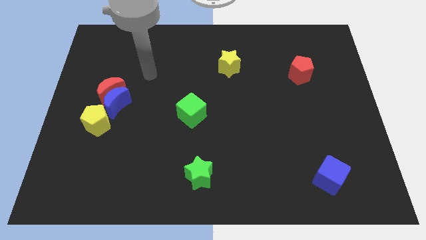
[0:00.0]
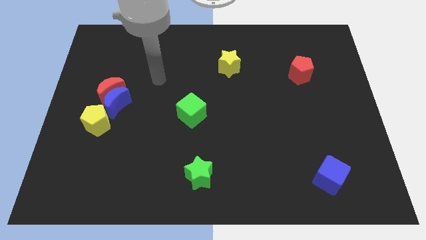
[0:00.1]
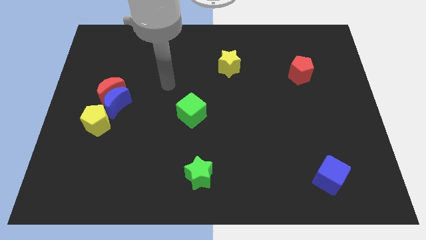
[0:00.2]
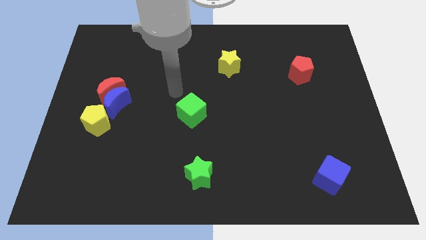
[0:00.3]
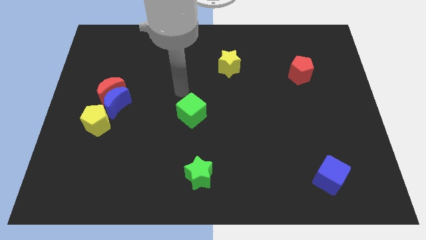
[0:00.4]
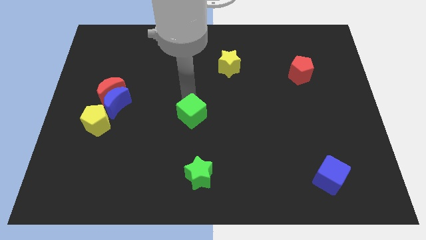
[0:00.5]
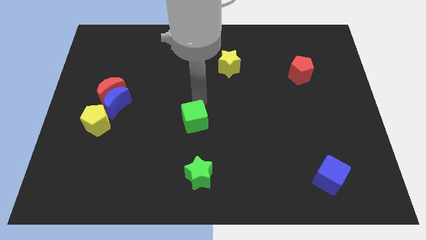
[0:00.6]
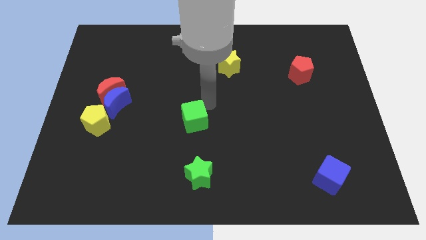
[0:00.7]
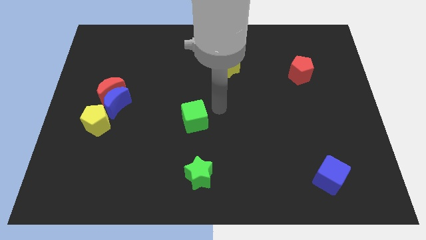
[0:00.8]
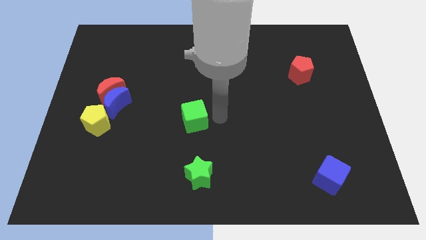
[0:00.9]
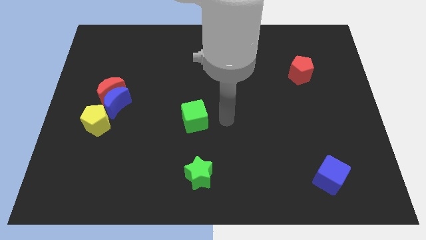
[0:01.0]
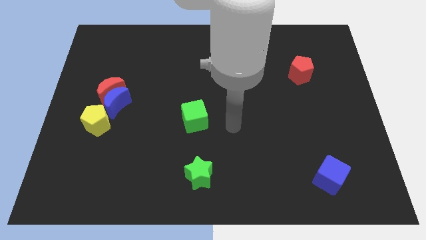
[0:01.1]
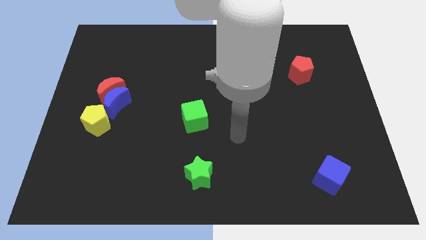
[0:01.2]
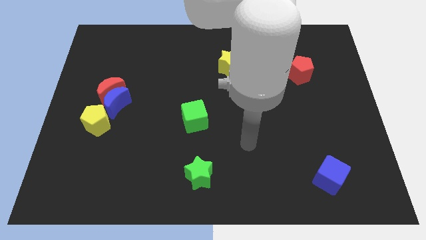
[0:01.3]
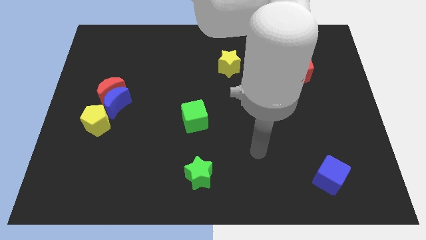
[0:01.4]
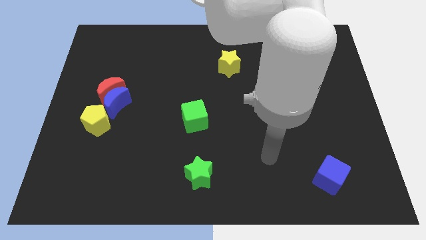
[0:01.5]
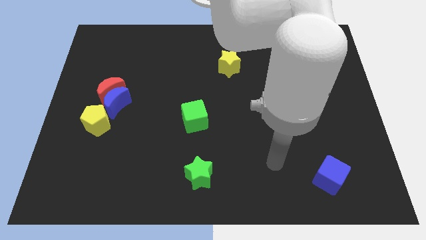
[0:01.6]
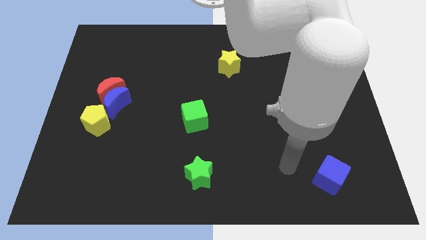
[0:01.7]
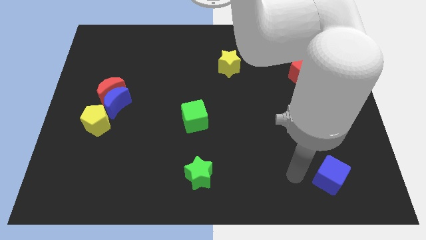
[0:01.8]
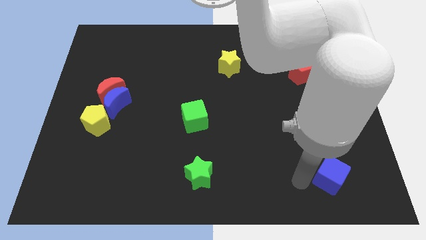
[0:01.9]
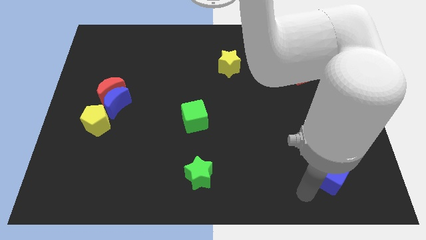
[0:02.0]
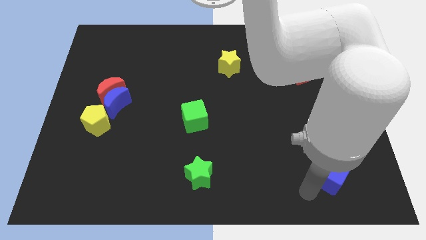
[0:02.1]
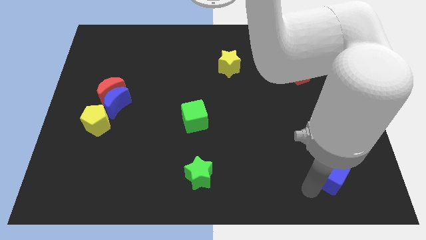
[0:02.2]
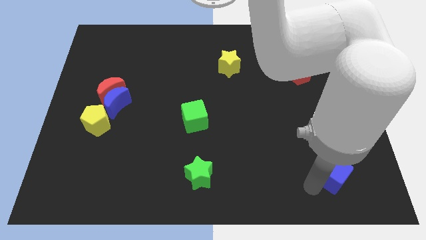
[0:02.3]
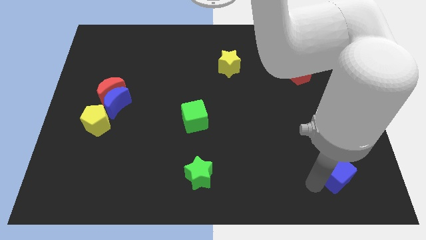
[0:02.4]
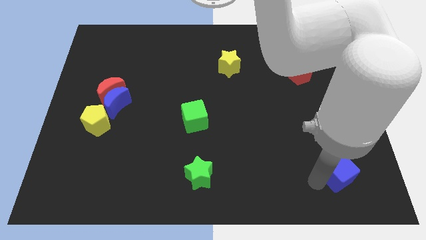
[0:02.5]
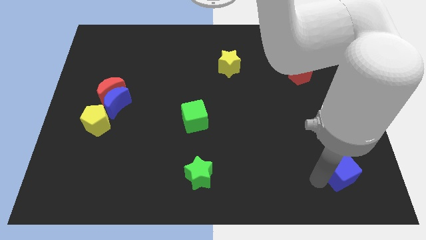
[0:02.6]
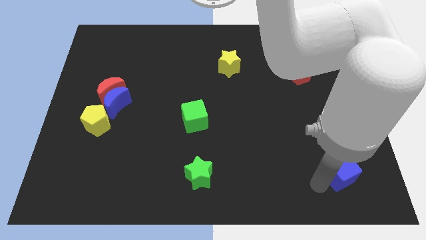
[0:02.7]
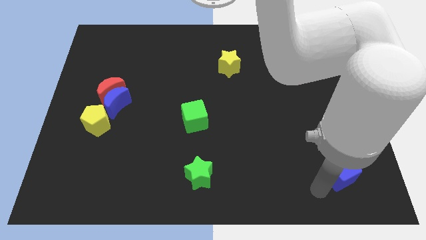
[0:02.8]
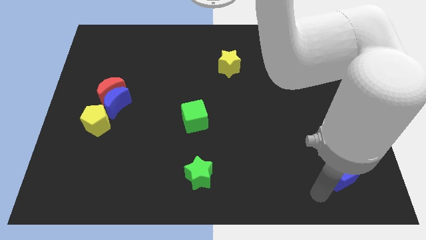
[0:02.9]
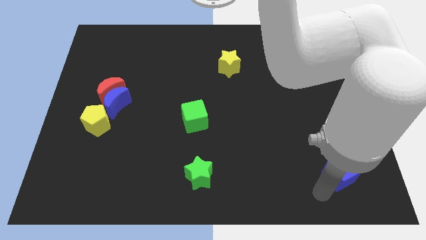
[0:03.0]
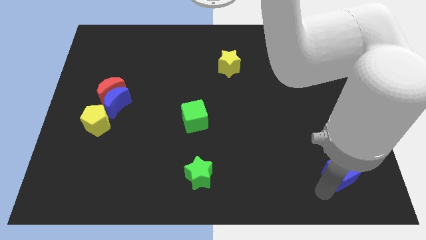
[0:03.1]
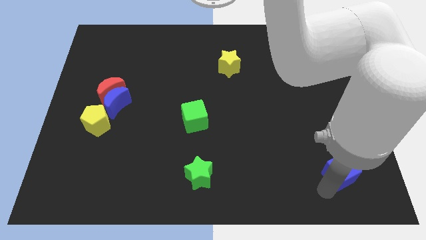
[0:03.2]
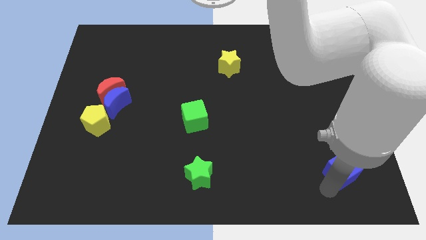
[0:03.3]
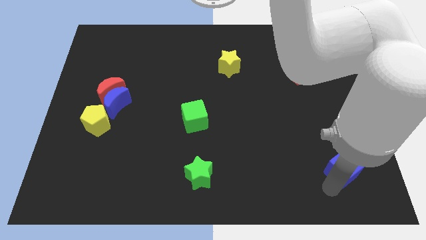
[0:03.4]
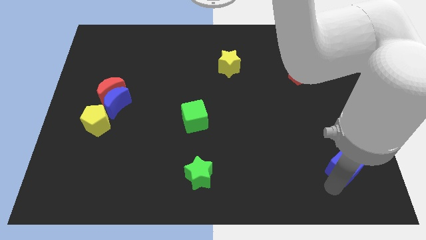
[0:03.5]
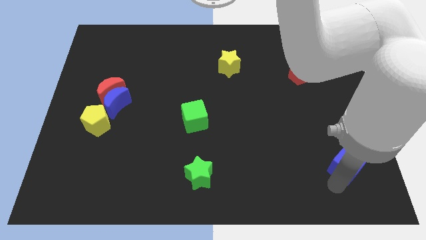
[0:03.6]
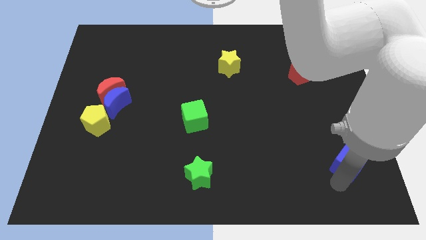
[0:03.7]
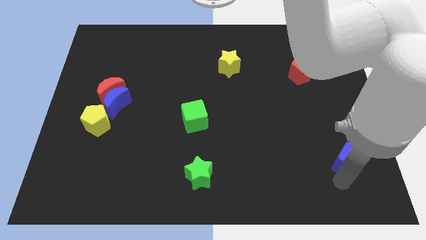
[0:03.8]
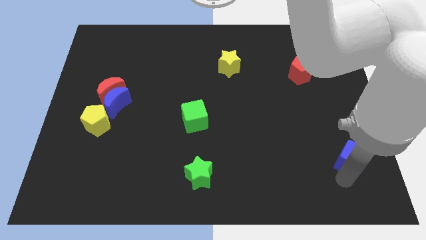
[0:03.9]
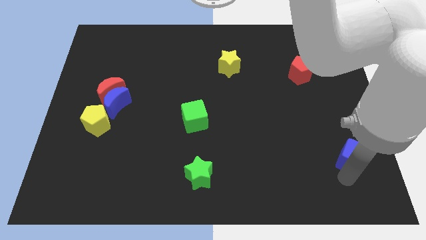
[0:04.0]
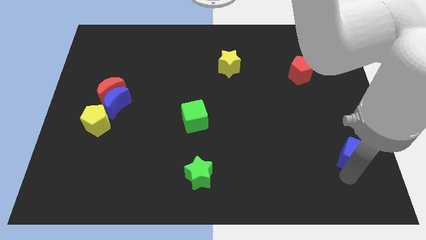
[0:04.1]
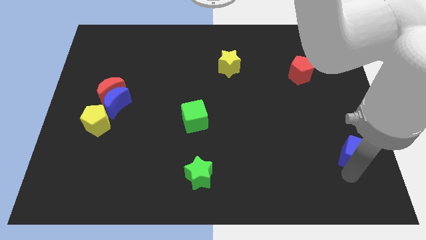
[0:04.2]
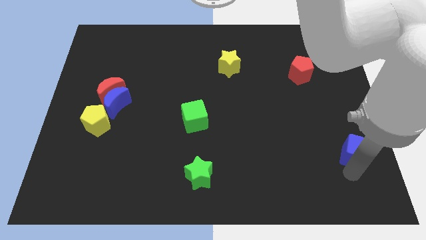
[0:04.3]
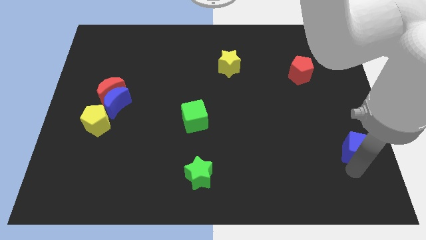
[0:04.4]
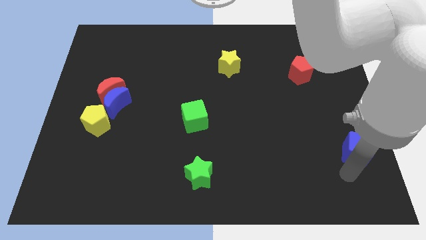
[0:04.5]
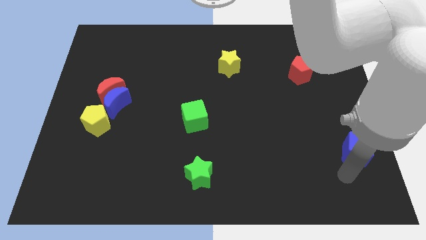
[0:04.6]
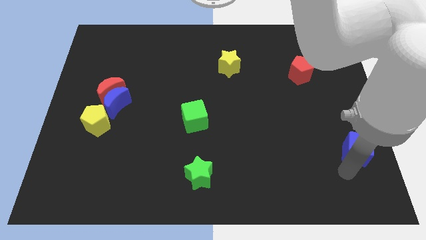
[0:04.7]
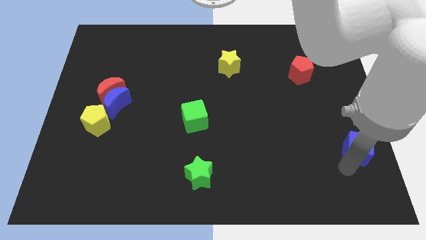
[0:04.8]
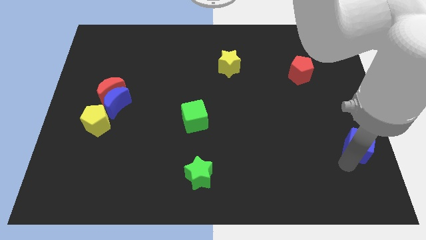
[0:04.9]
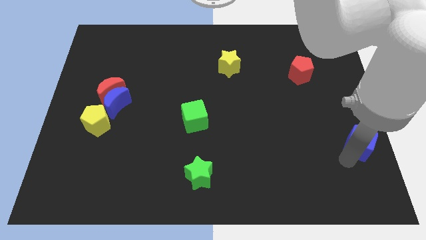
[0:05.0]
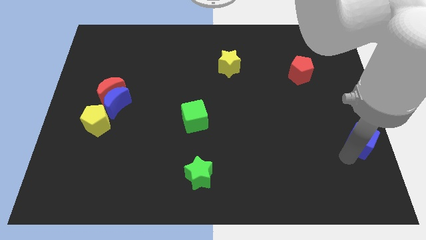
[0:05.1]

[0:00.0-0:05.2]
push the blue cube to the right side of the board

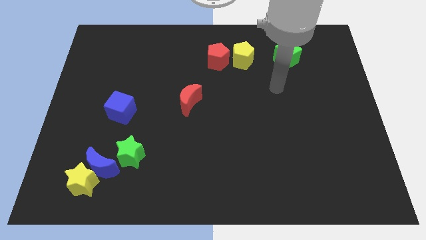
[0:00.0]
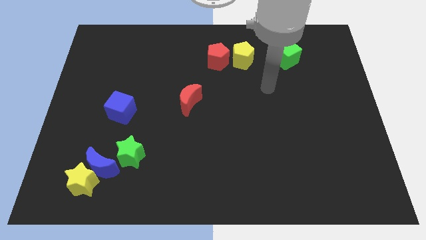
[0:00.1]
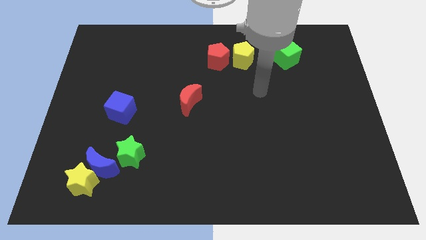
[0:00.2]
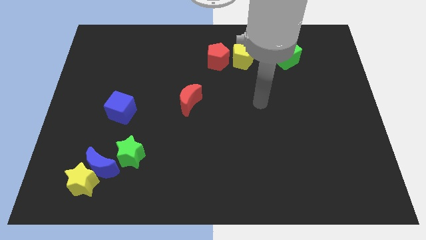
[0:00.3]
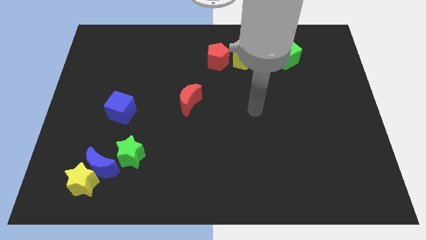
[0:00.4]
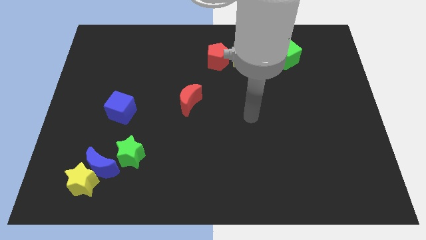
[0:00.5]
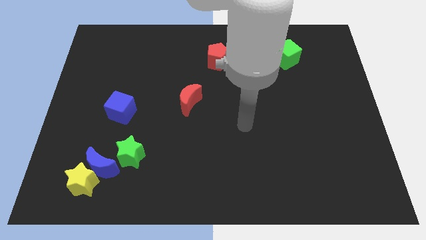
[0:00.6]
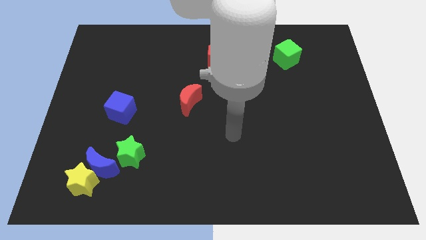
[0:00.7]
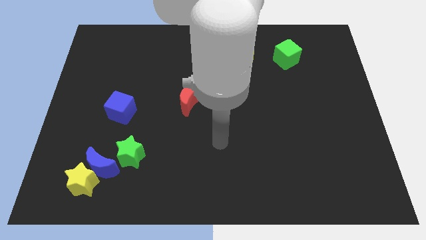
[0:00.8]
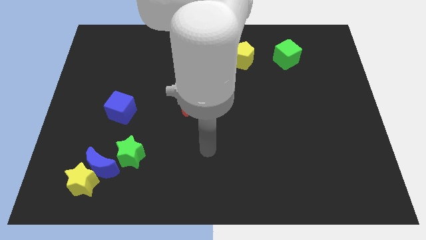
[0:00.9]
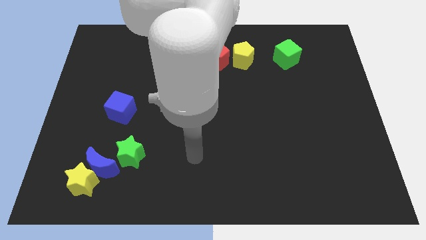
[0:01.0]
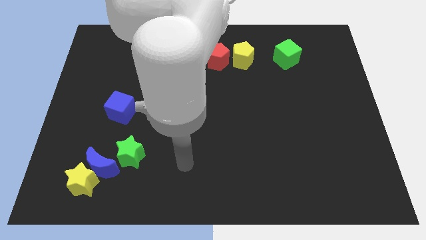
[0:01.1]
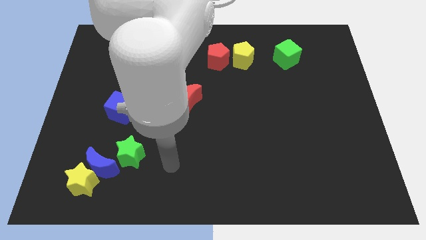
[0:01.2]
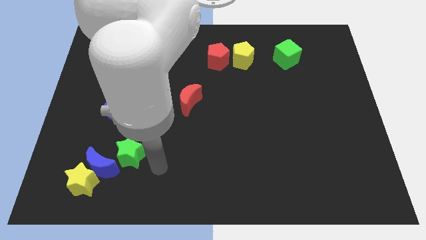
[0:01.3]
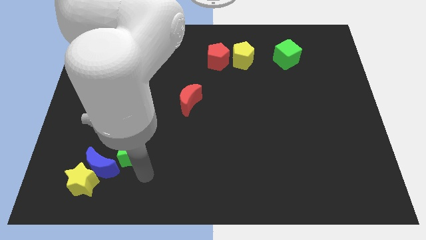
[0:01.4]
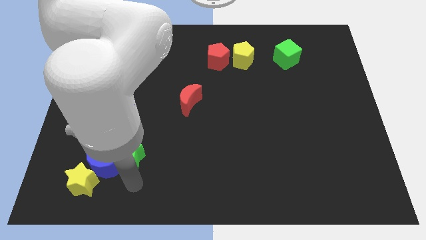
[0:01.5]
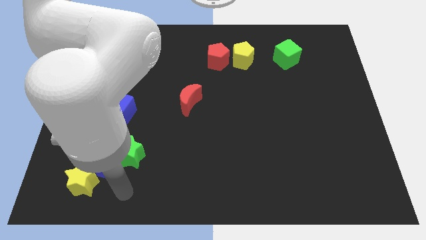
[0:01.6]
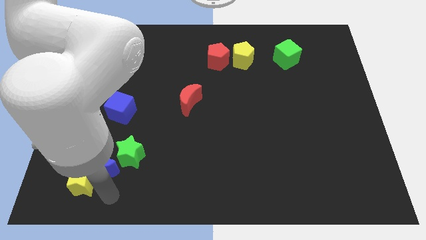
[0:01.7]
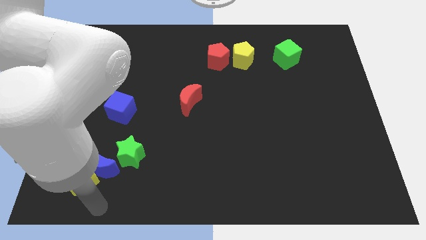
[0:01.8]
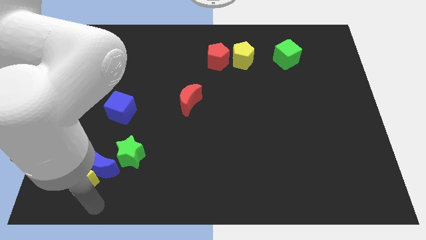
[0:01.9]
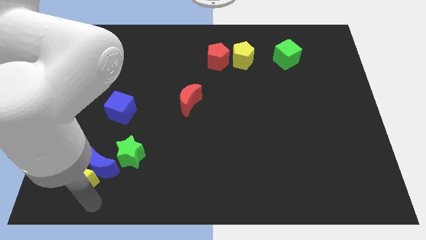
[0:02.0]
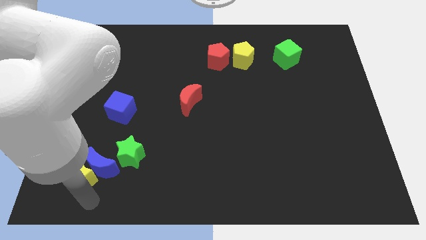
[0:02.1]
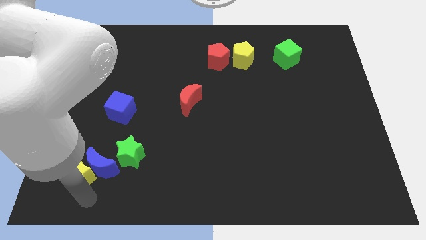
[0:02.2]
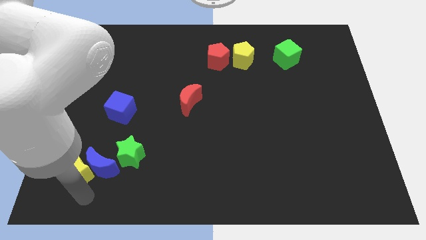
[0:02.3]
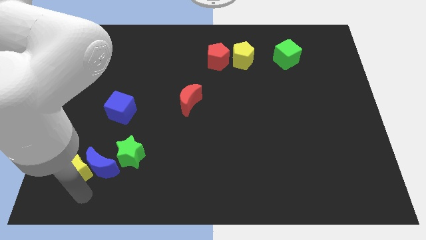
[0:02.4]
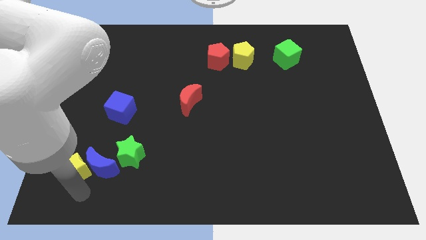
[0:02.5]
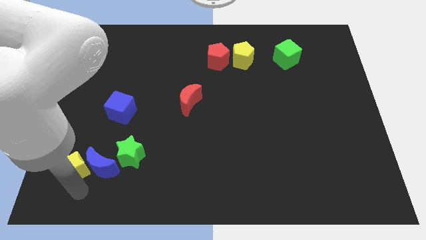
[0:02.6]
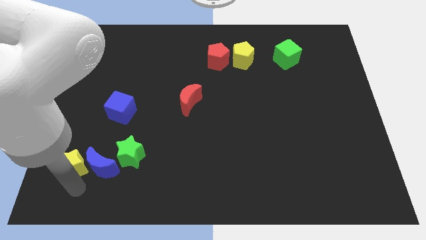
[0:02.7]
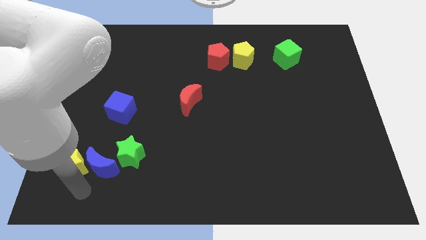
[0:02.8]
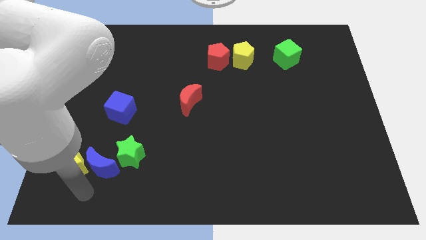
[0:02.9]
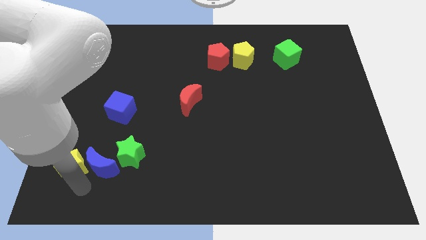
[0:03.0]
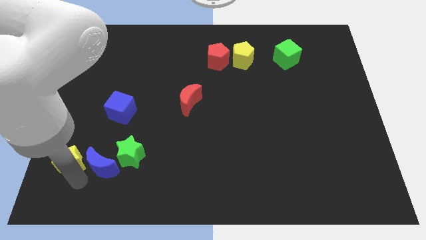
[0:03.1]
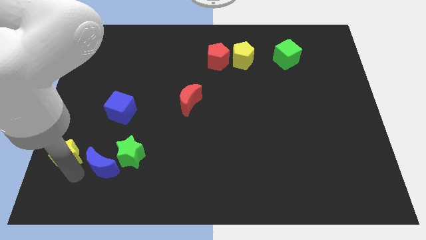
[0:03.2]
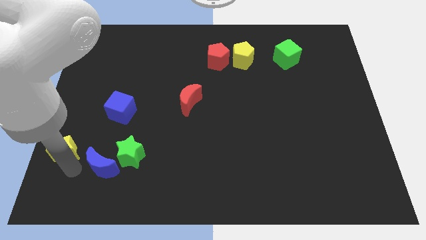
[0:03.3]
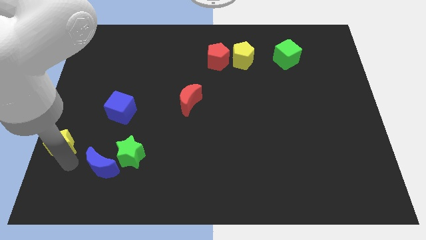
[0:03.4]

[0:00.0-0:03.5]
put the yellow star to the center left
